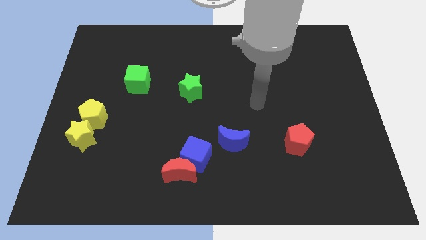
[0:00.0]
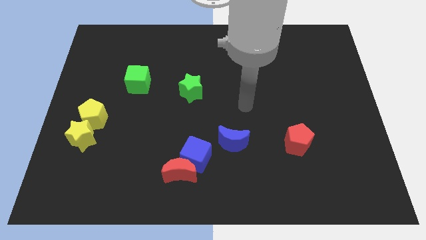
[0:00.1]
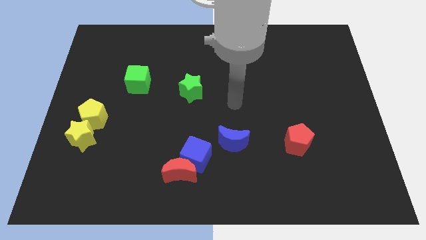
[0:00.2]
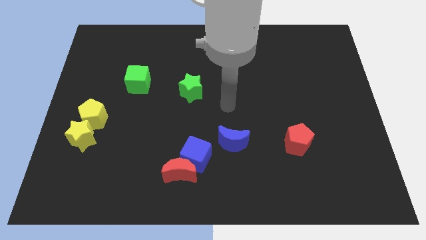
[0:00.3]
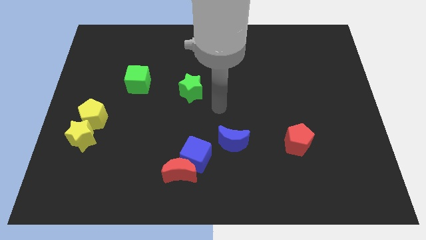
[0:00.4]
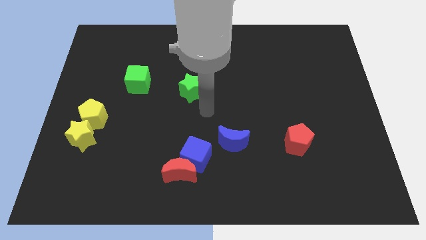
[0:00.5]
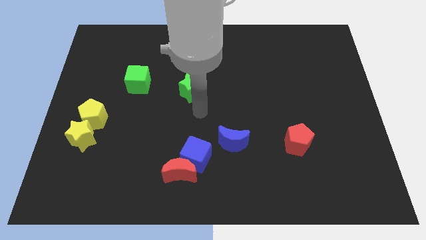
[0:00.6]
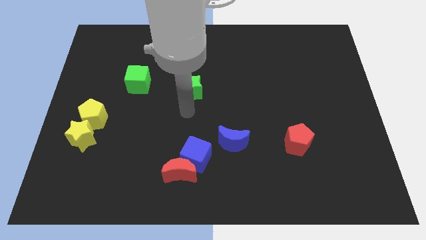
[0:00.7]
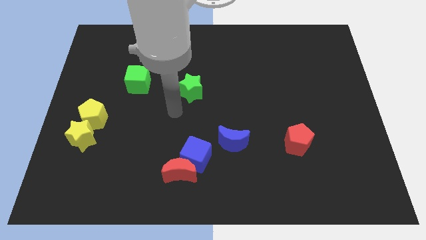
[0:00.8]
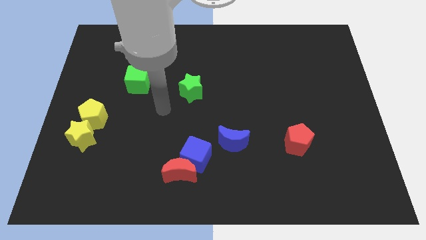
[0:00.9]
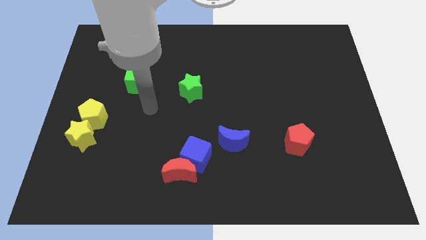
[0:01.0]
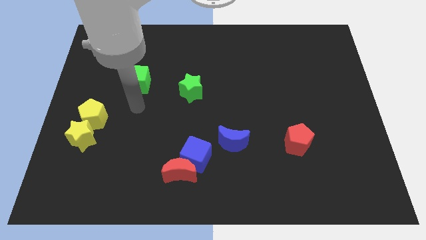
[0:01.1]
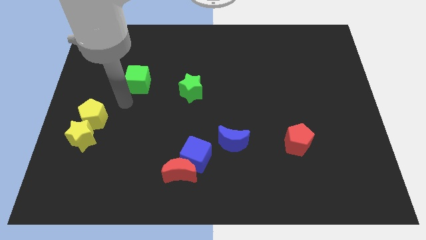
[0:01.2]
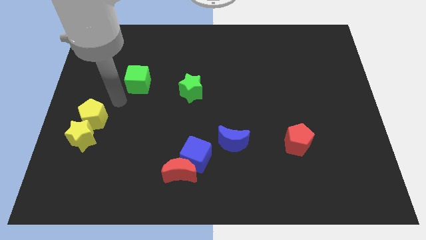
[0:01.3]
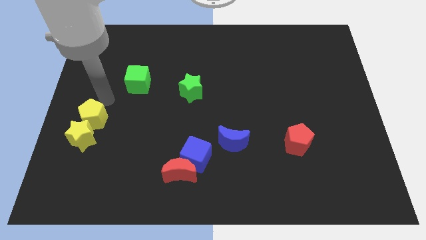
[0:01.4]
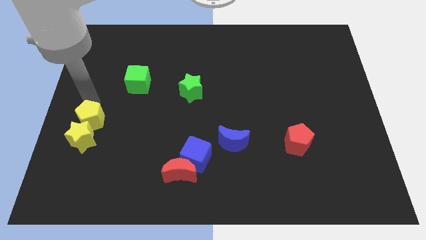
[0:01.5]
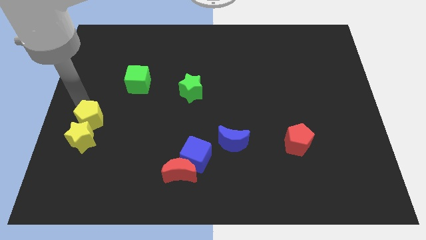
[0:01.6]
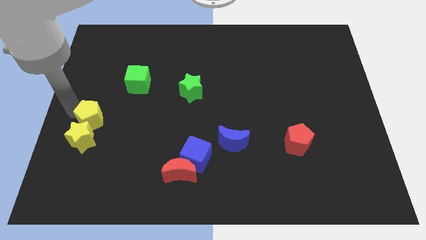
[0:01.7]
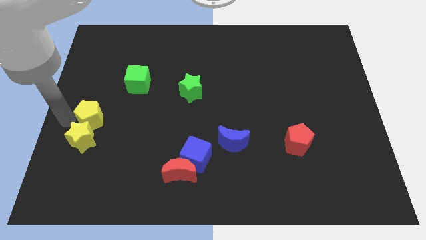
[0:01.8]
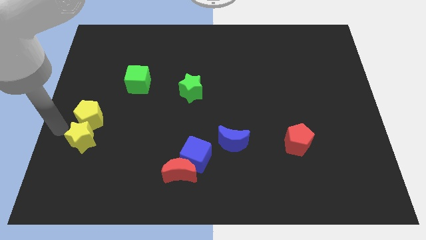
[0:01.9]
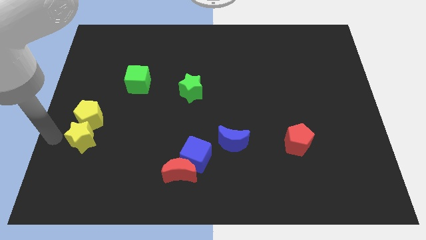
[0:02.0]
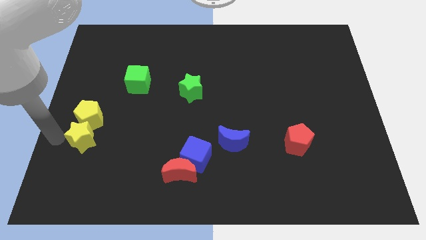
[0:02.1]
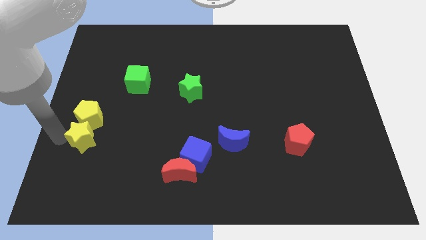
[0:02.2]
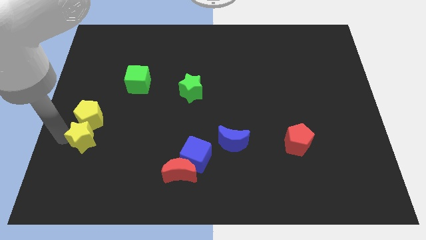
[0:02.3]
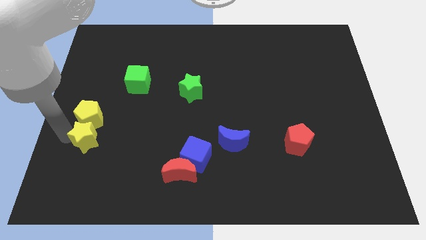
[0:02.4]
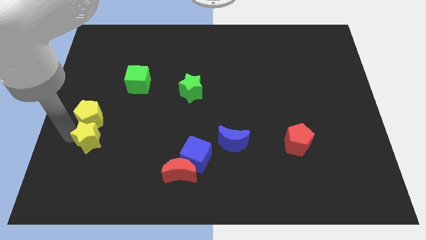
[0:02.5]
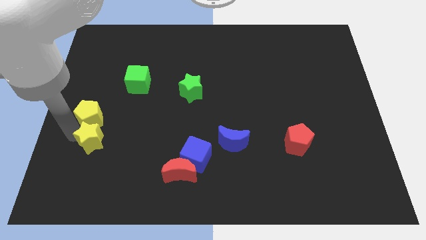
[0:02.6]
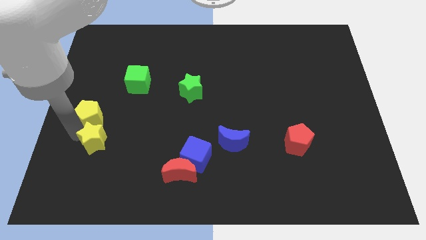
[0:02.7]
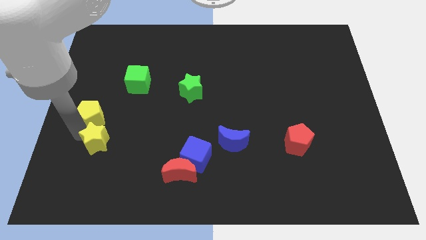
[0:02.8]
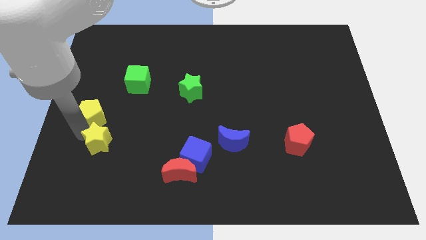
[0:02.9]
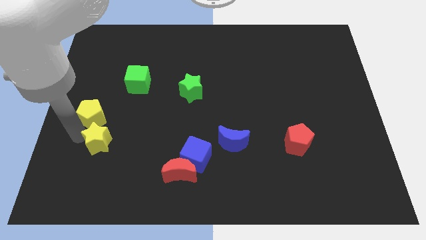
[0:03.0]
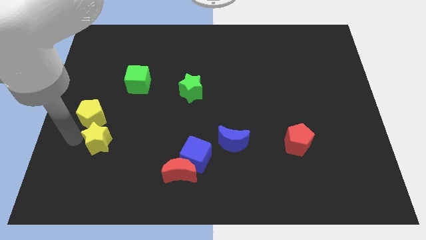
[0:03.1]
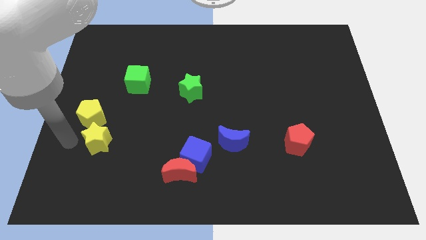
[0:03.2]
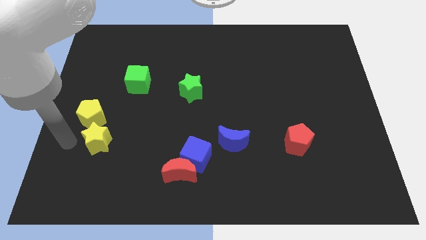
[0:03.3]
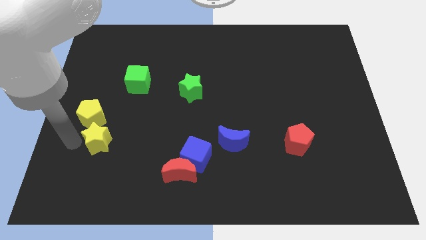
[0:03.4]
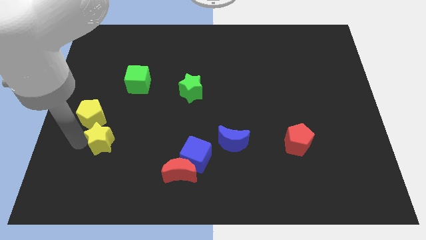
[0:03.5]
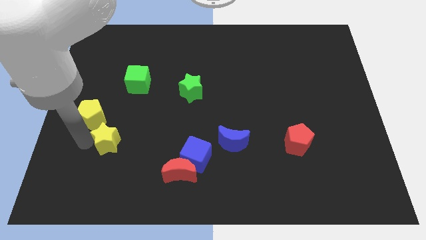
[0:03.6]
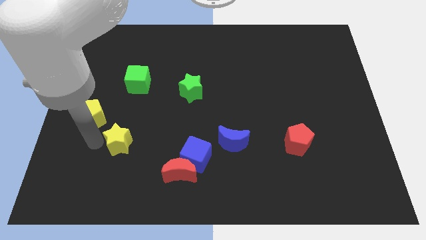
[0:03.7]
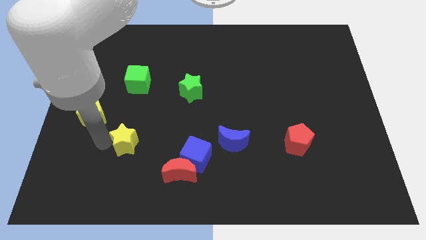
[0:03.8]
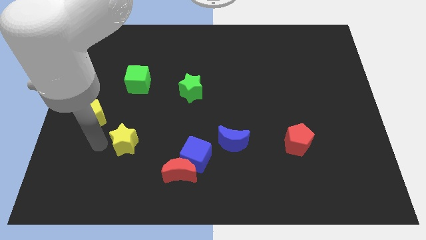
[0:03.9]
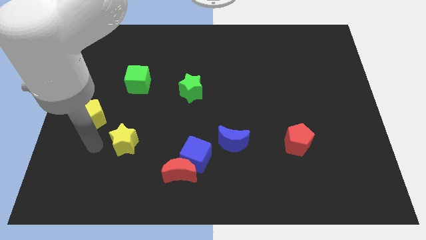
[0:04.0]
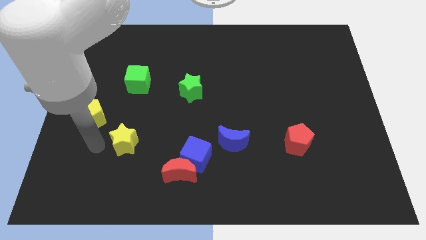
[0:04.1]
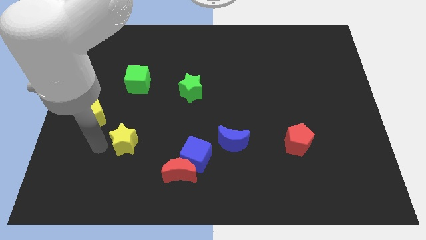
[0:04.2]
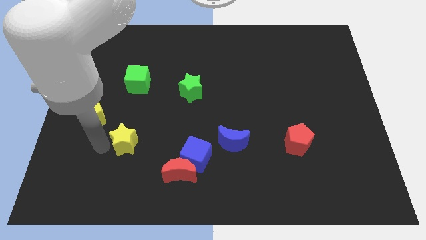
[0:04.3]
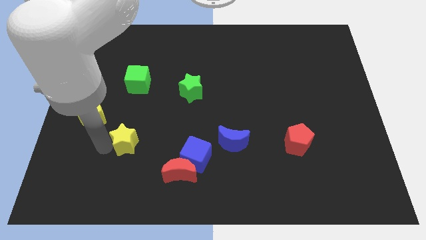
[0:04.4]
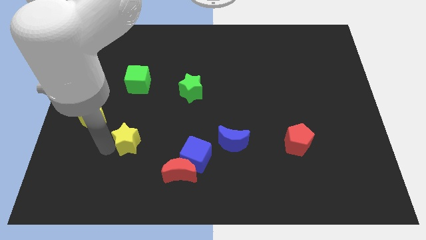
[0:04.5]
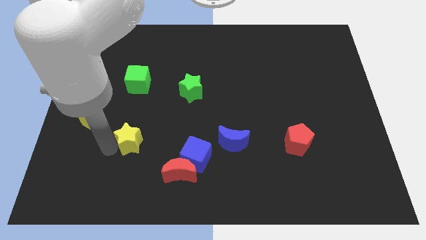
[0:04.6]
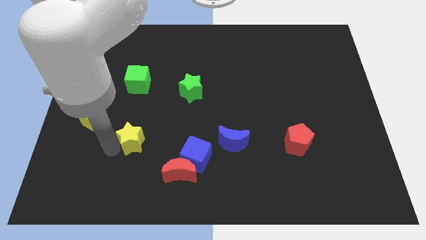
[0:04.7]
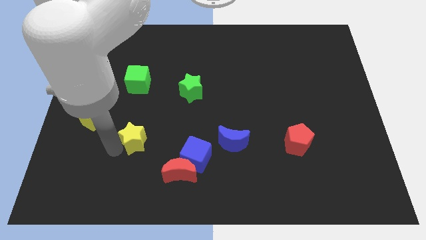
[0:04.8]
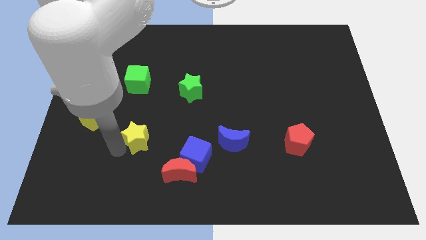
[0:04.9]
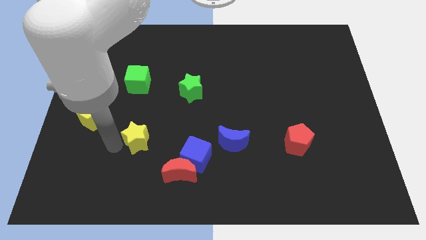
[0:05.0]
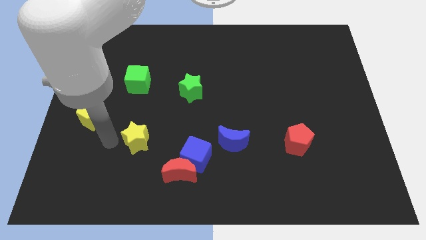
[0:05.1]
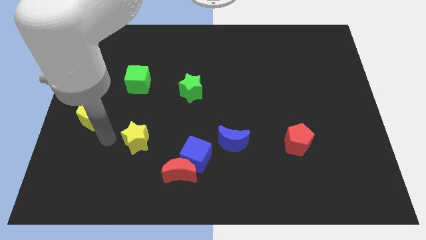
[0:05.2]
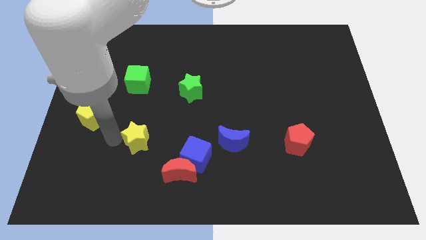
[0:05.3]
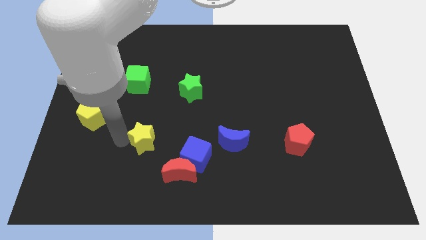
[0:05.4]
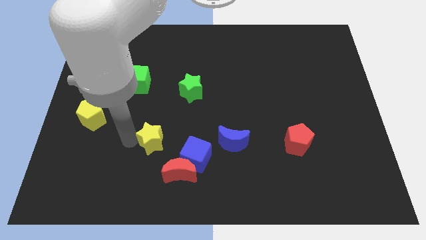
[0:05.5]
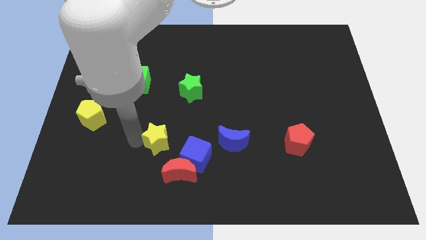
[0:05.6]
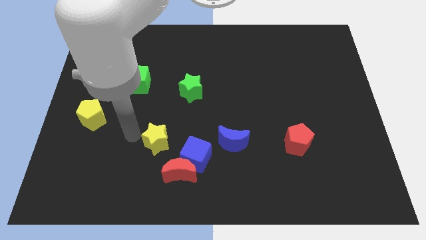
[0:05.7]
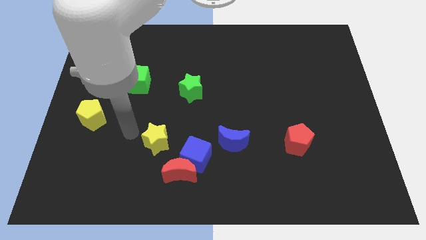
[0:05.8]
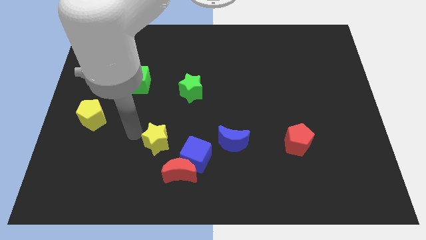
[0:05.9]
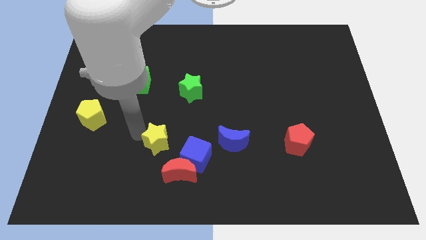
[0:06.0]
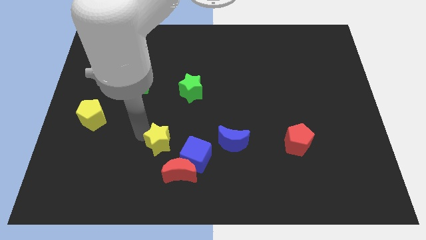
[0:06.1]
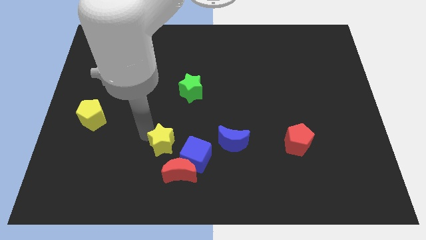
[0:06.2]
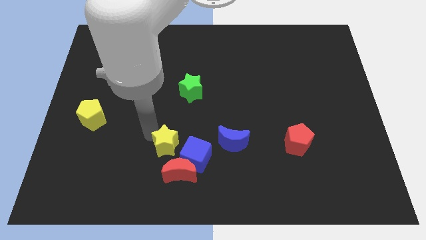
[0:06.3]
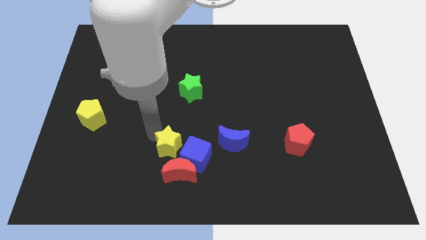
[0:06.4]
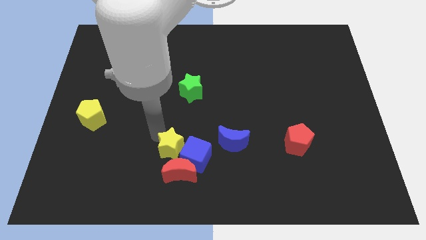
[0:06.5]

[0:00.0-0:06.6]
put the yellow star close to the blue cube
